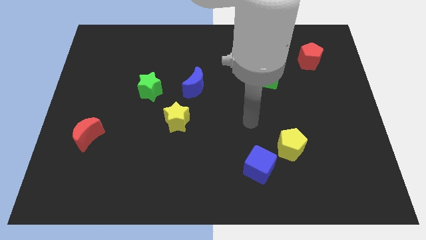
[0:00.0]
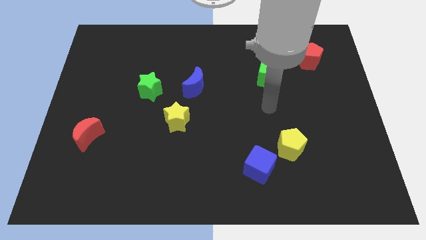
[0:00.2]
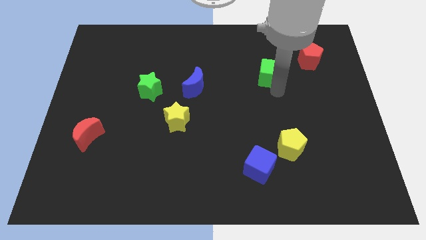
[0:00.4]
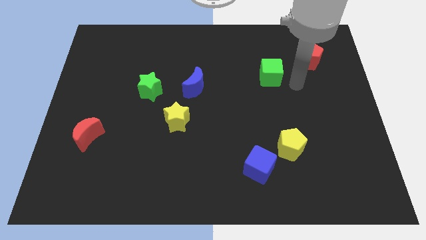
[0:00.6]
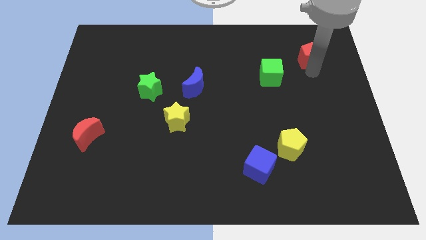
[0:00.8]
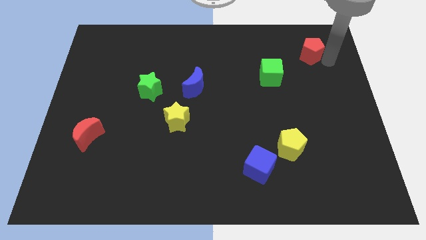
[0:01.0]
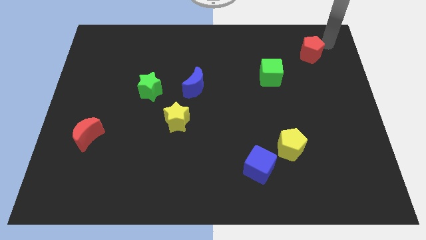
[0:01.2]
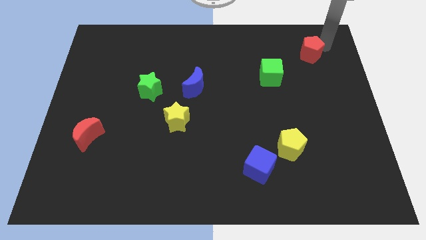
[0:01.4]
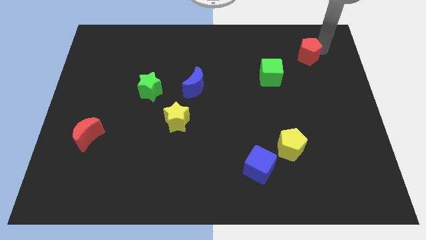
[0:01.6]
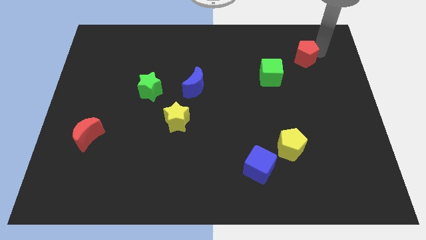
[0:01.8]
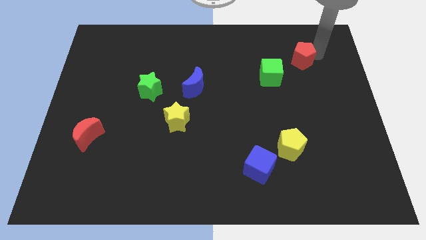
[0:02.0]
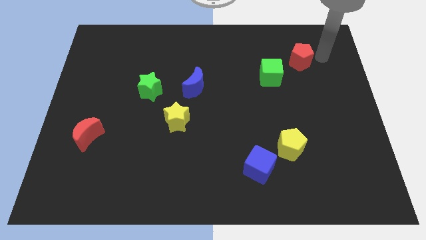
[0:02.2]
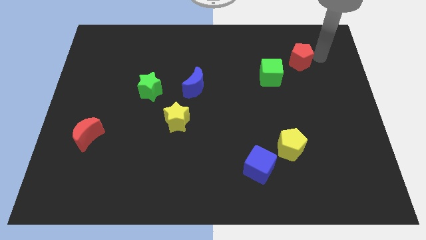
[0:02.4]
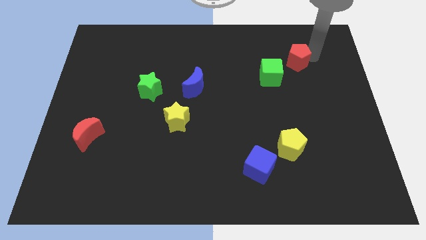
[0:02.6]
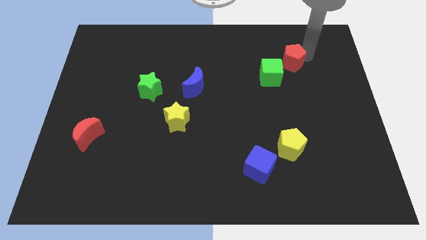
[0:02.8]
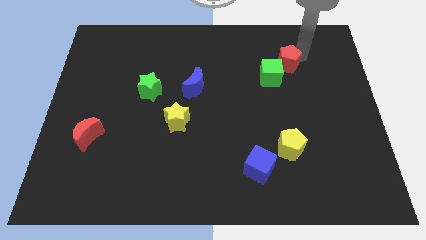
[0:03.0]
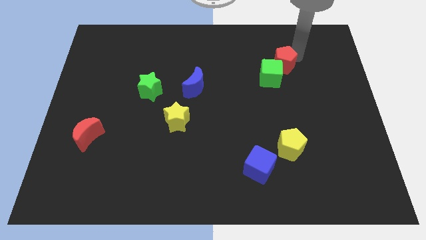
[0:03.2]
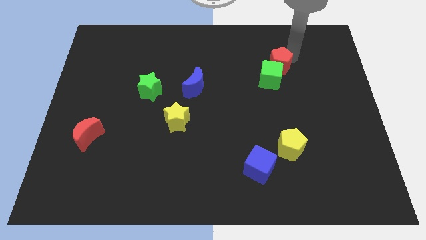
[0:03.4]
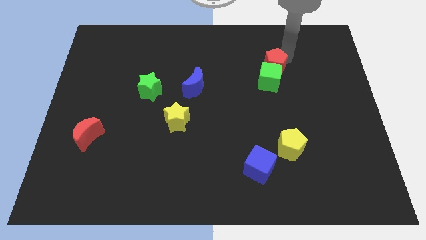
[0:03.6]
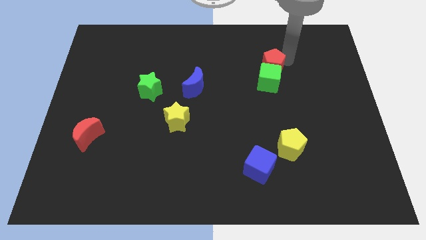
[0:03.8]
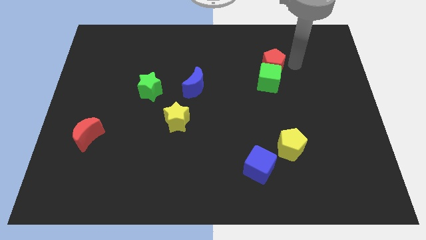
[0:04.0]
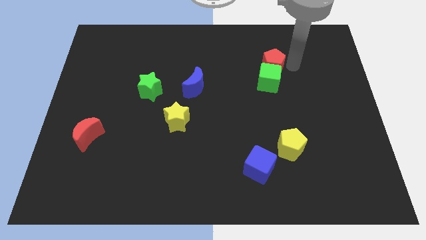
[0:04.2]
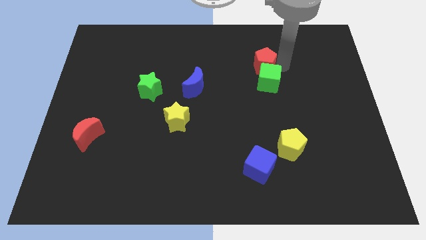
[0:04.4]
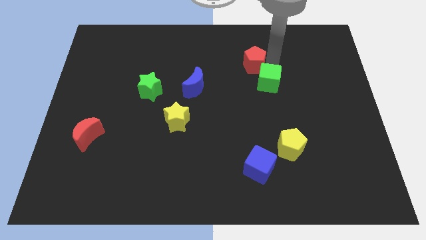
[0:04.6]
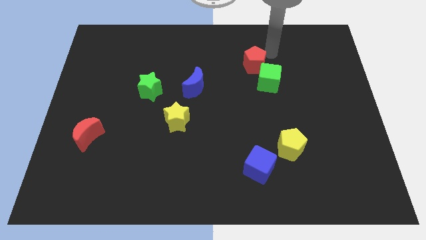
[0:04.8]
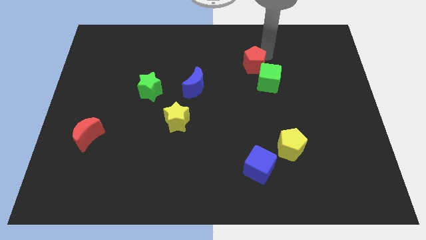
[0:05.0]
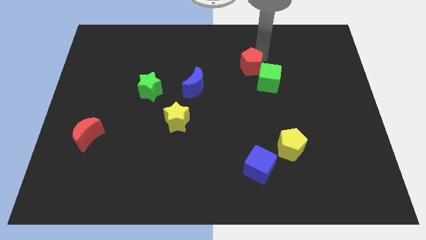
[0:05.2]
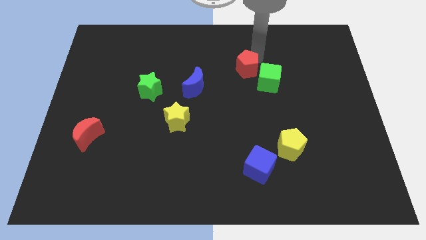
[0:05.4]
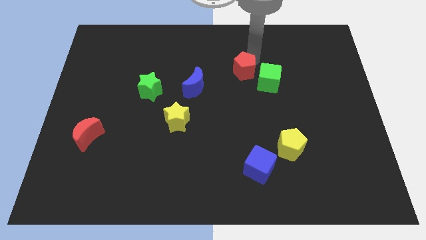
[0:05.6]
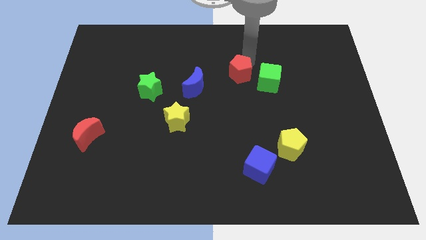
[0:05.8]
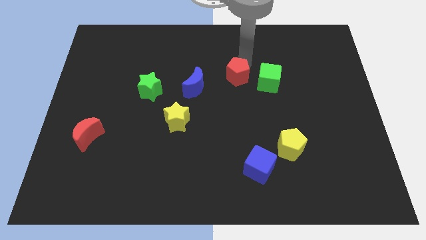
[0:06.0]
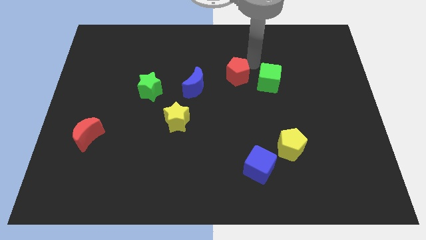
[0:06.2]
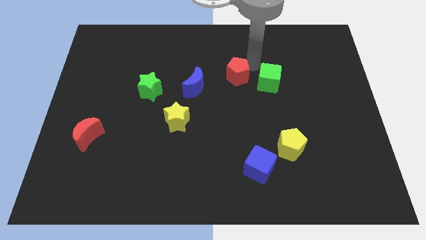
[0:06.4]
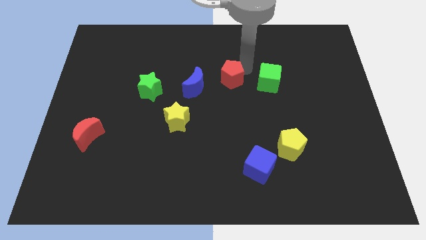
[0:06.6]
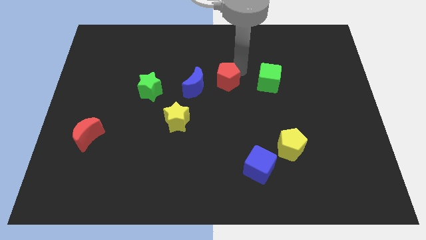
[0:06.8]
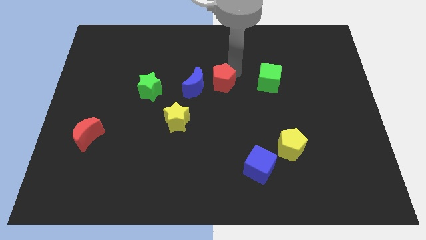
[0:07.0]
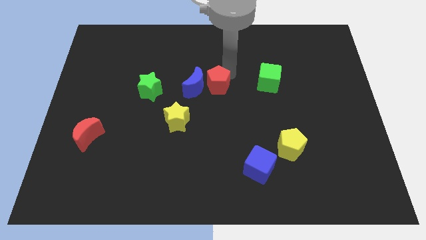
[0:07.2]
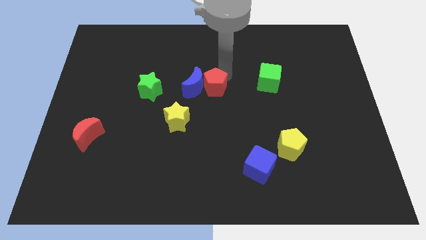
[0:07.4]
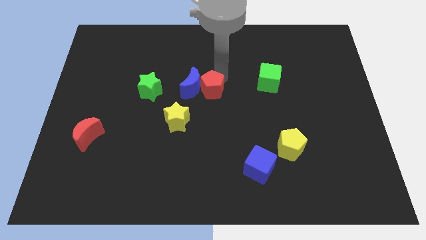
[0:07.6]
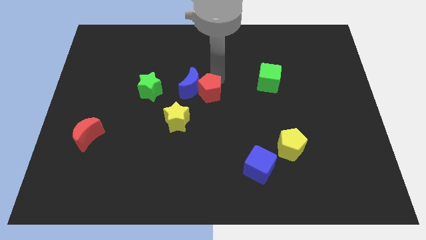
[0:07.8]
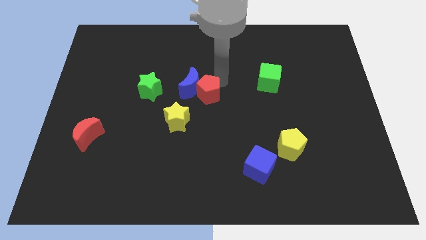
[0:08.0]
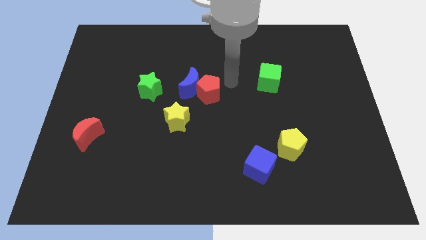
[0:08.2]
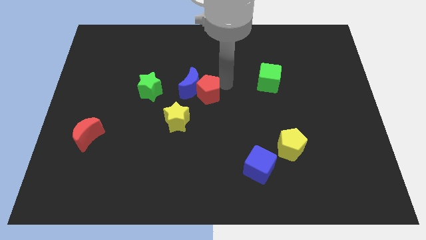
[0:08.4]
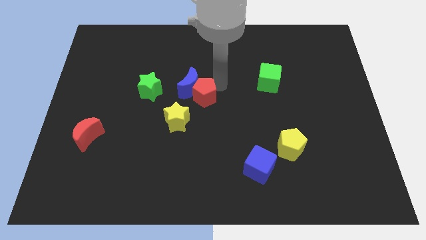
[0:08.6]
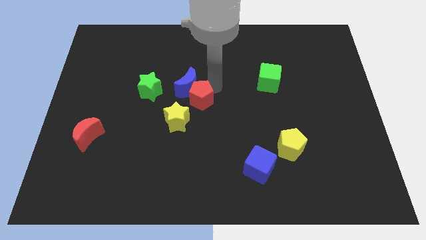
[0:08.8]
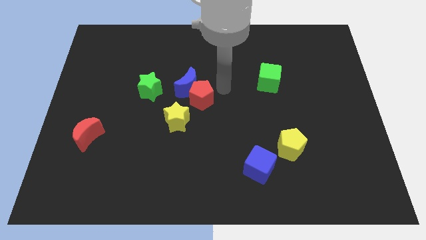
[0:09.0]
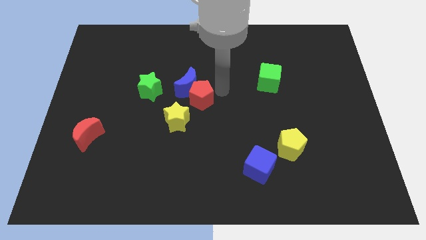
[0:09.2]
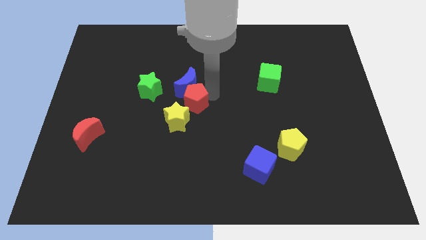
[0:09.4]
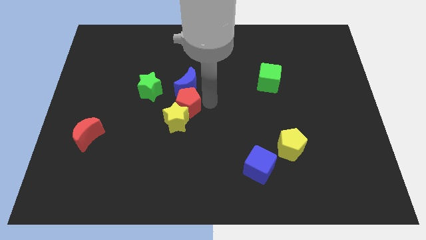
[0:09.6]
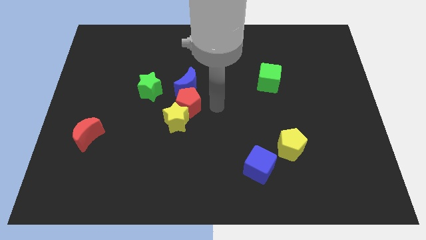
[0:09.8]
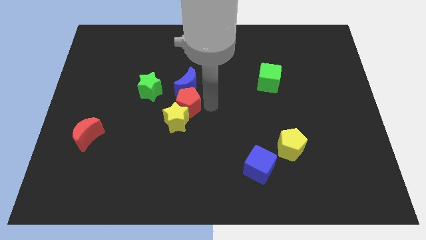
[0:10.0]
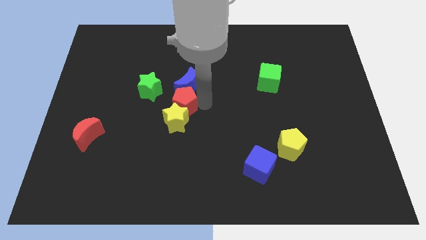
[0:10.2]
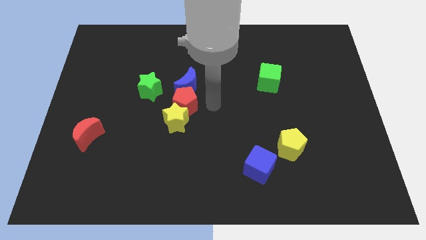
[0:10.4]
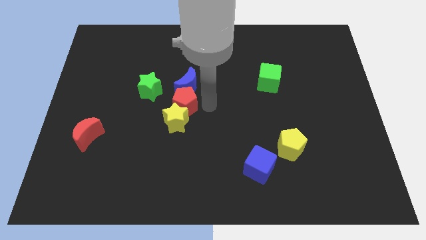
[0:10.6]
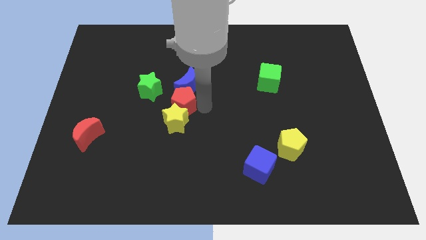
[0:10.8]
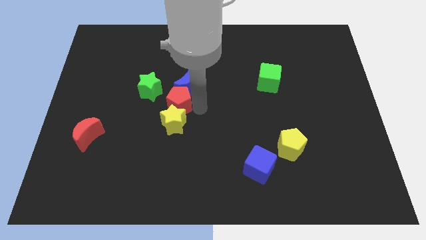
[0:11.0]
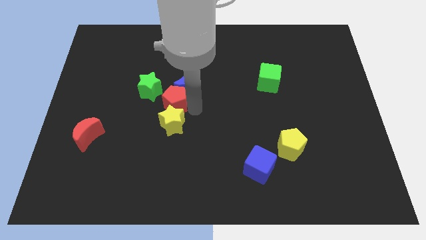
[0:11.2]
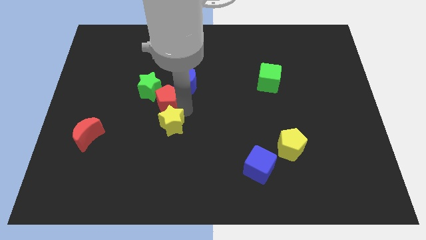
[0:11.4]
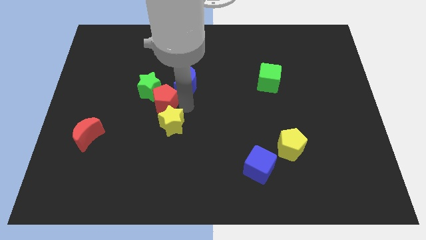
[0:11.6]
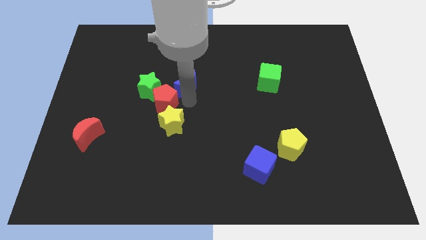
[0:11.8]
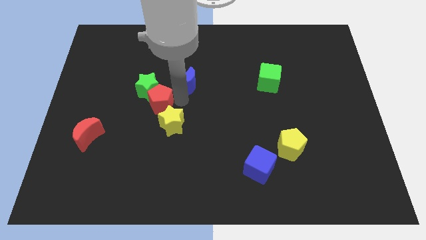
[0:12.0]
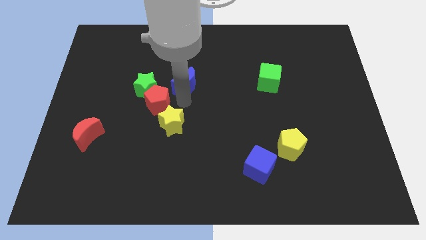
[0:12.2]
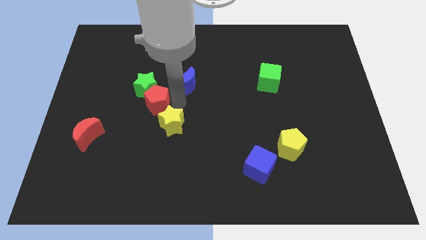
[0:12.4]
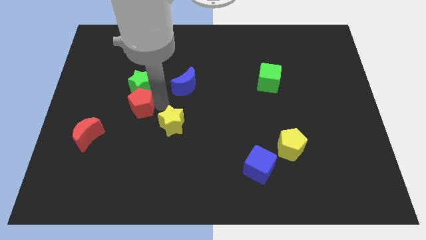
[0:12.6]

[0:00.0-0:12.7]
slide the red pentagon diagonally down and to the left of the green star

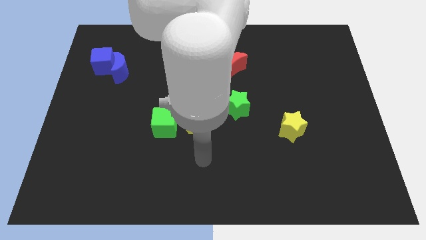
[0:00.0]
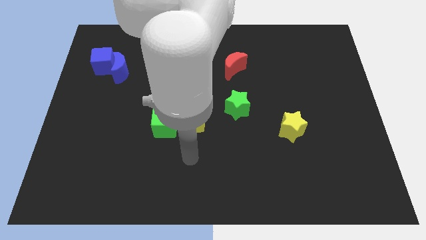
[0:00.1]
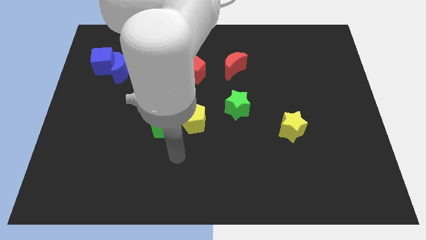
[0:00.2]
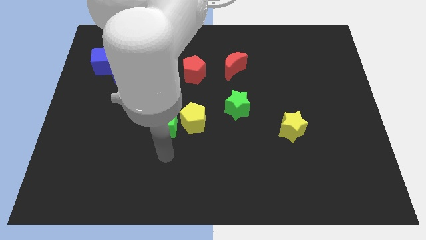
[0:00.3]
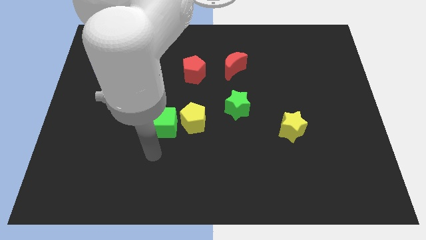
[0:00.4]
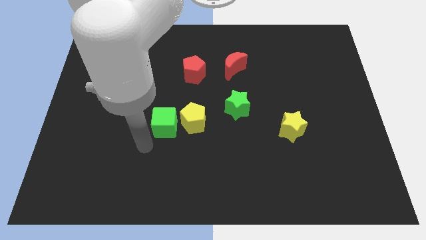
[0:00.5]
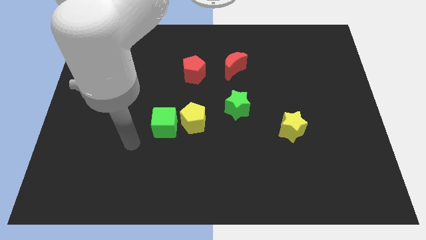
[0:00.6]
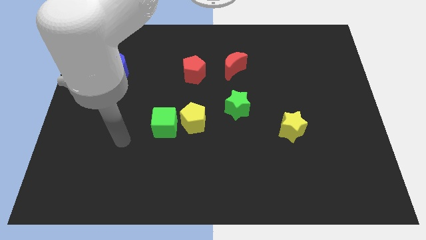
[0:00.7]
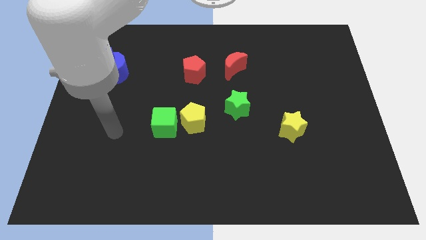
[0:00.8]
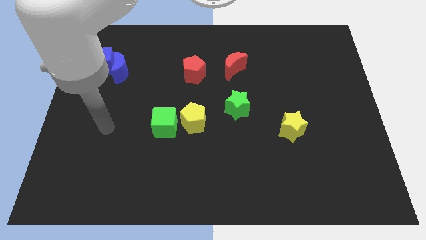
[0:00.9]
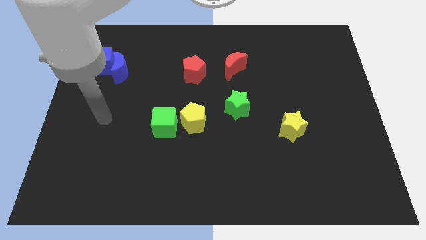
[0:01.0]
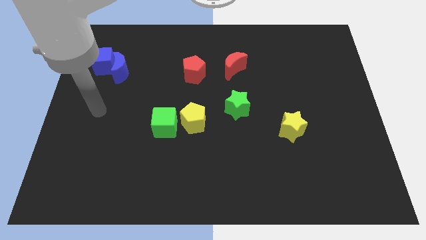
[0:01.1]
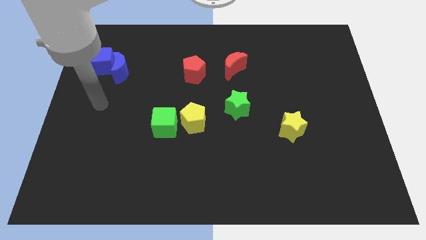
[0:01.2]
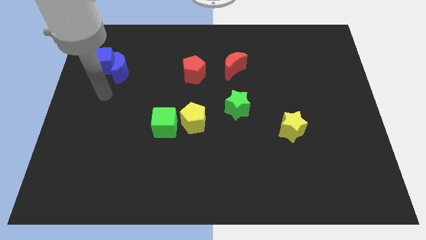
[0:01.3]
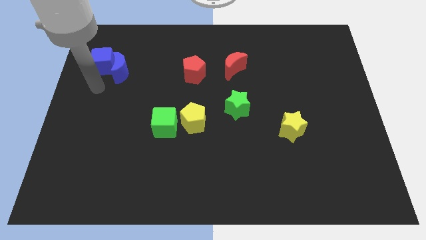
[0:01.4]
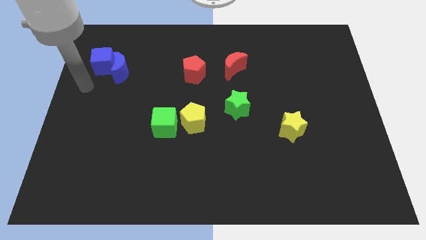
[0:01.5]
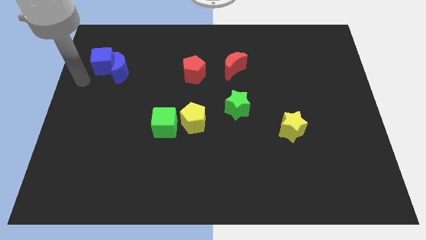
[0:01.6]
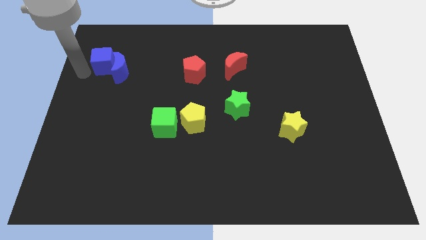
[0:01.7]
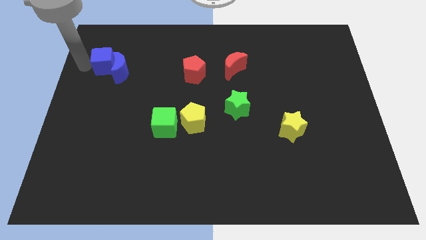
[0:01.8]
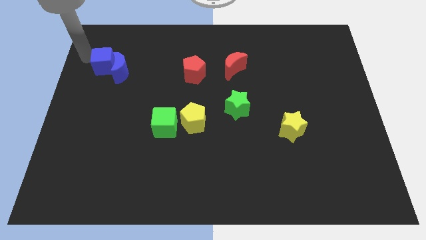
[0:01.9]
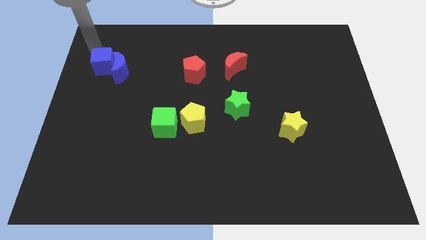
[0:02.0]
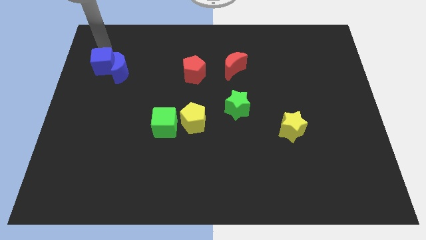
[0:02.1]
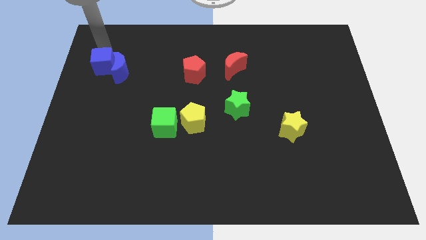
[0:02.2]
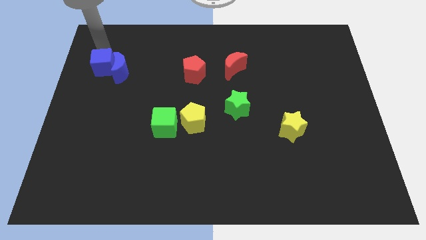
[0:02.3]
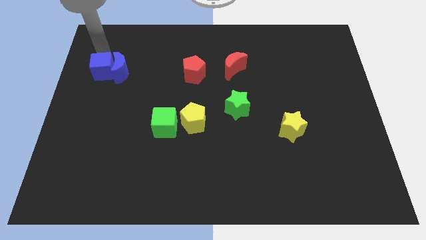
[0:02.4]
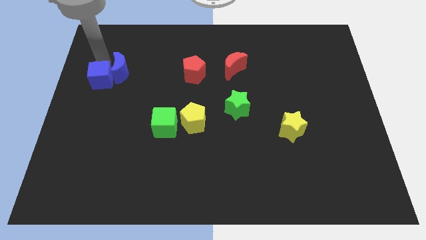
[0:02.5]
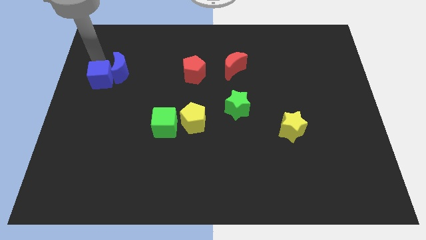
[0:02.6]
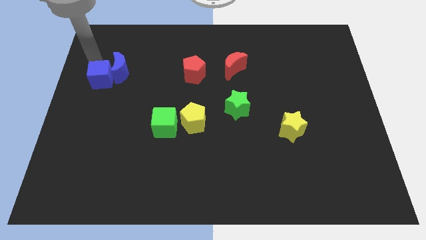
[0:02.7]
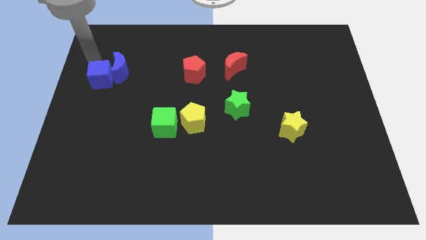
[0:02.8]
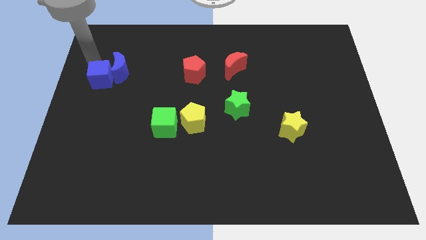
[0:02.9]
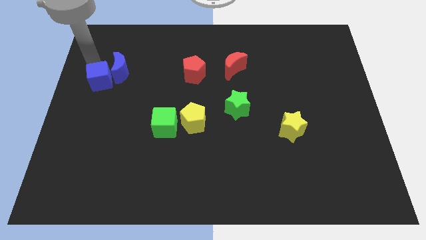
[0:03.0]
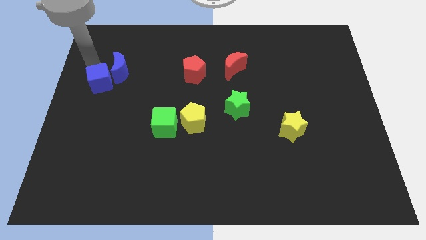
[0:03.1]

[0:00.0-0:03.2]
move the blue cube below the blue moon
